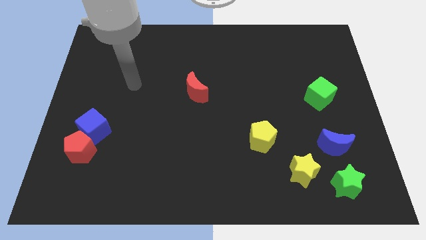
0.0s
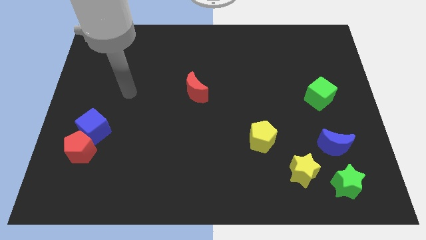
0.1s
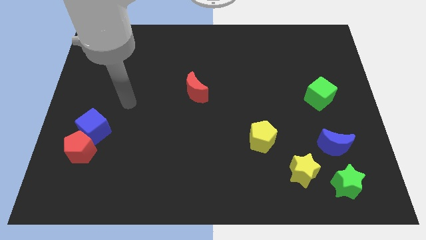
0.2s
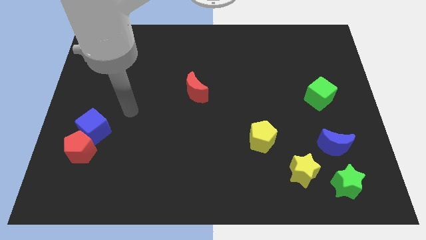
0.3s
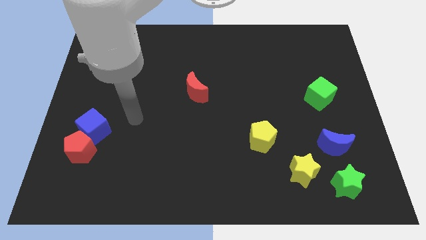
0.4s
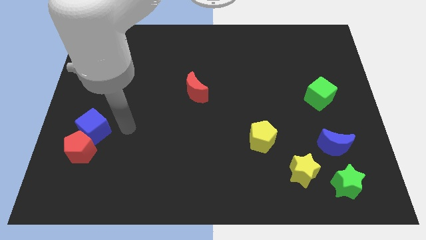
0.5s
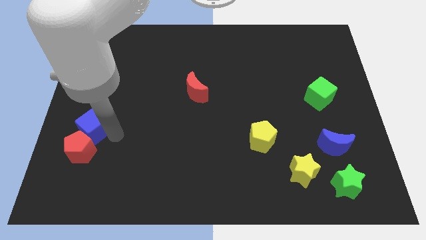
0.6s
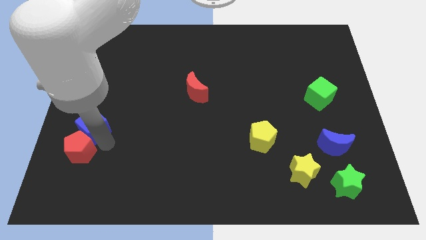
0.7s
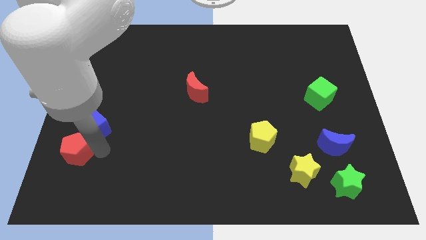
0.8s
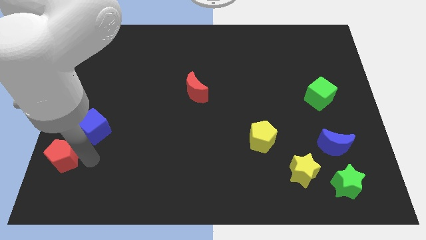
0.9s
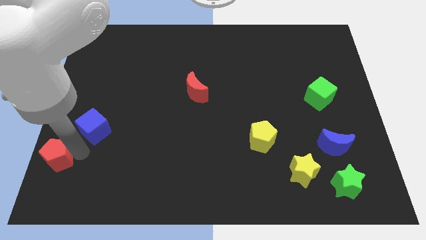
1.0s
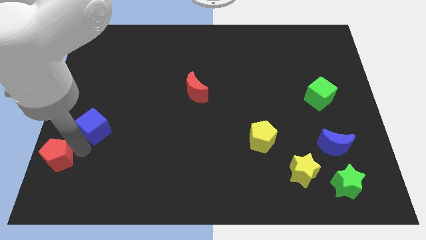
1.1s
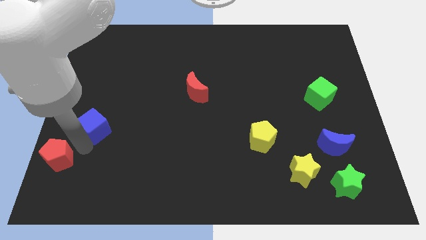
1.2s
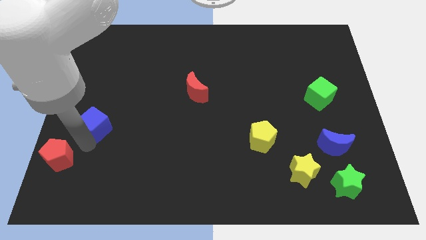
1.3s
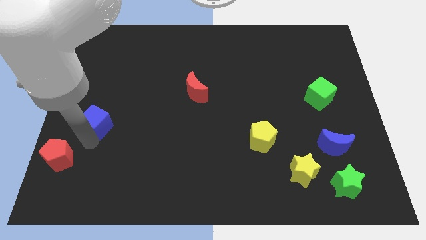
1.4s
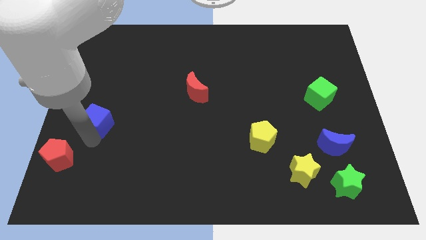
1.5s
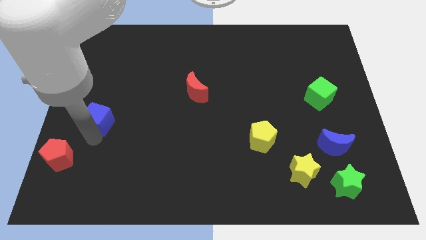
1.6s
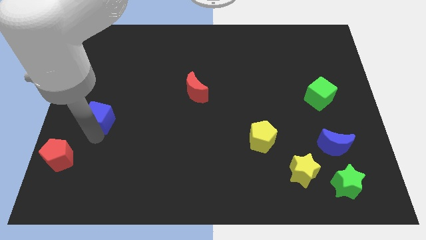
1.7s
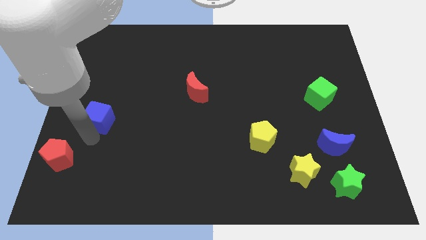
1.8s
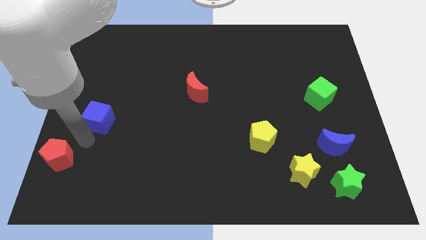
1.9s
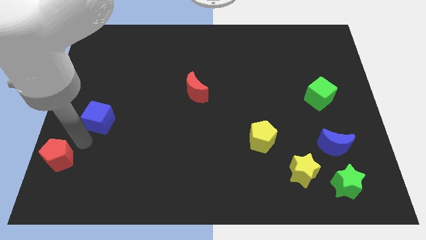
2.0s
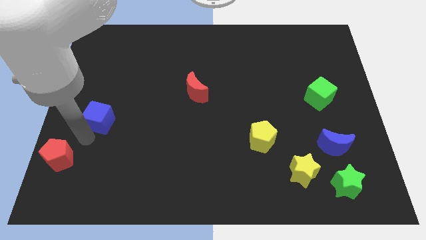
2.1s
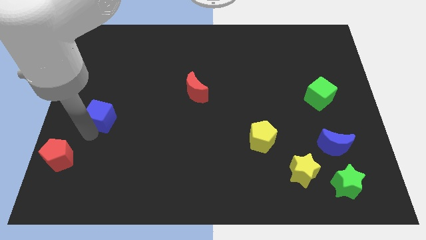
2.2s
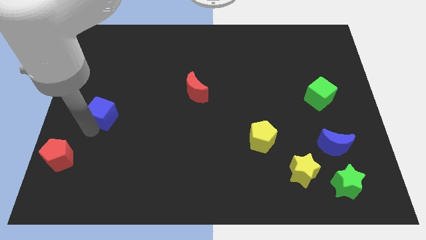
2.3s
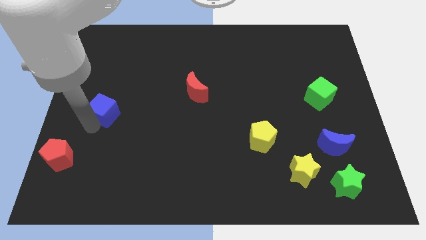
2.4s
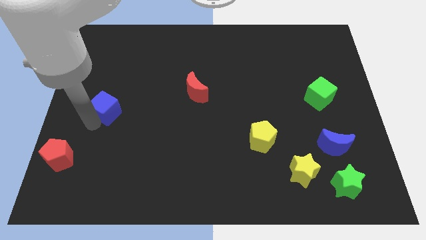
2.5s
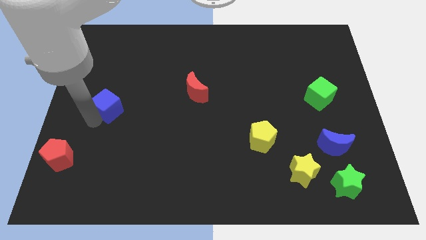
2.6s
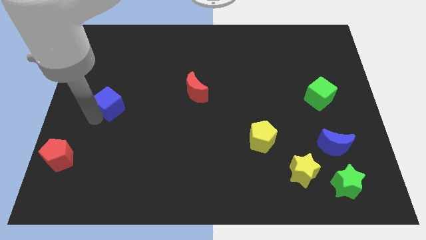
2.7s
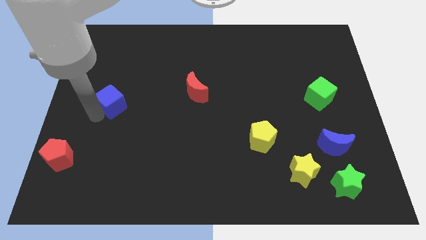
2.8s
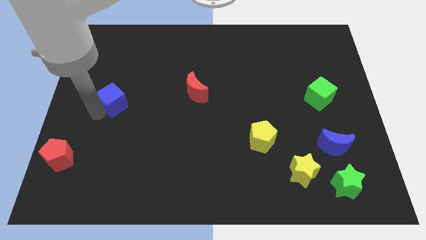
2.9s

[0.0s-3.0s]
move the blue cube slightly up and then right

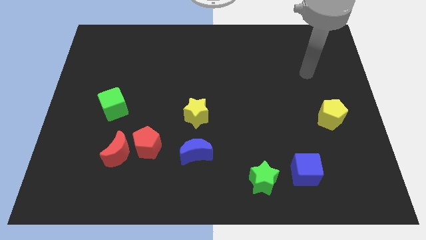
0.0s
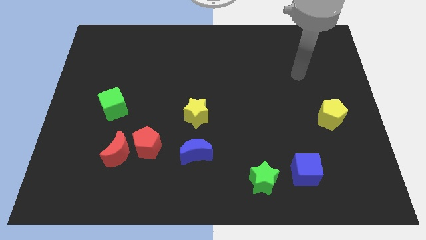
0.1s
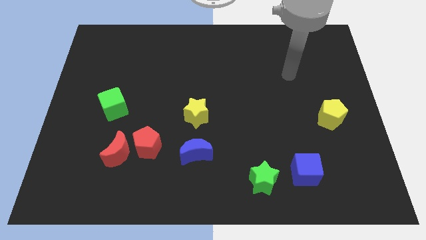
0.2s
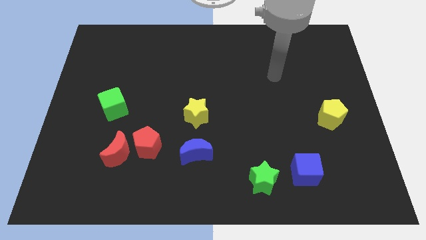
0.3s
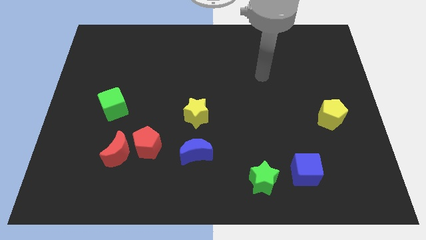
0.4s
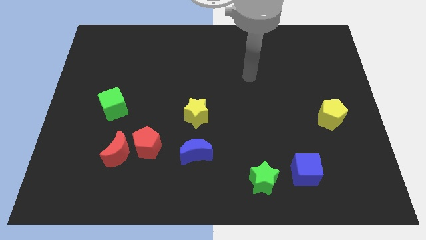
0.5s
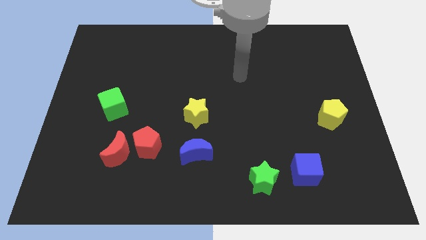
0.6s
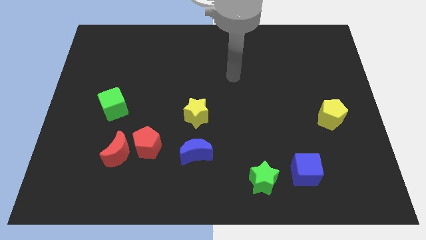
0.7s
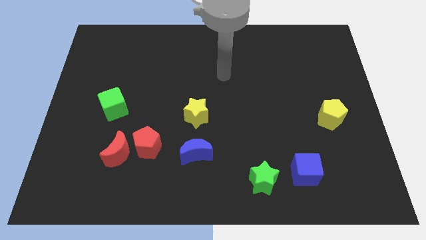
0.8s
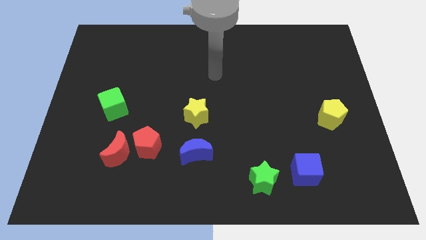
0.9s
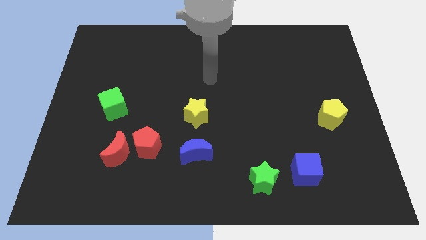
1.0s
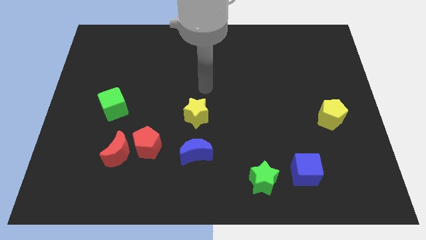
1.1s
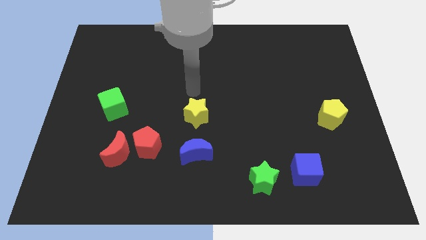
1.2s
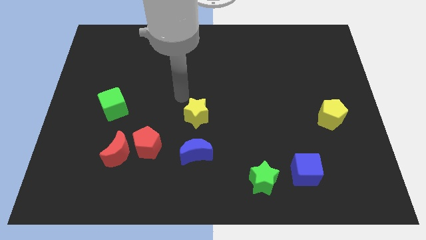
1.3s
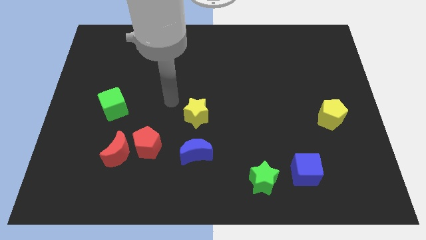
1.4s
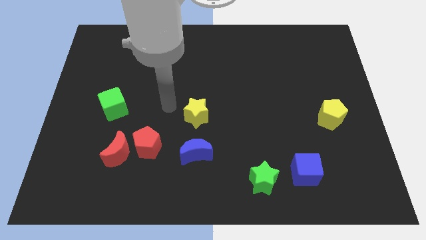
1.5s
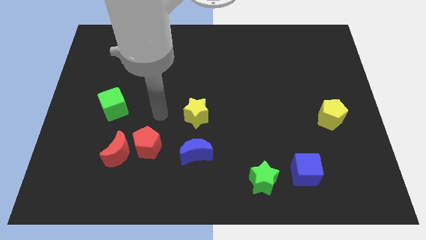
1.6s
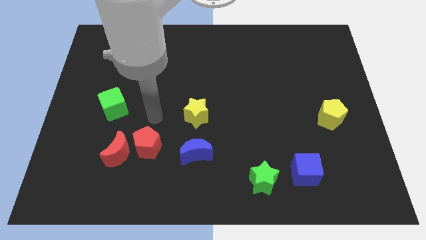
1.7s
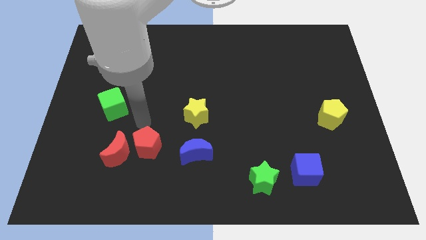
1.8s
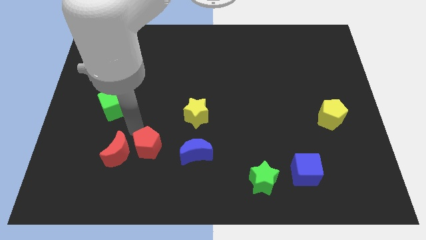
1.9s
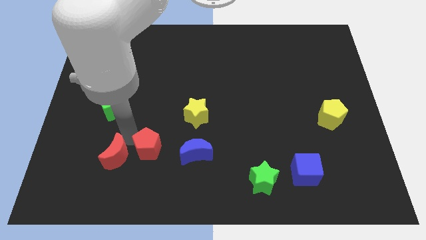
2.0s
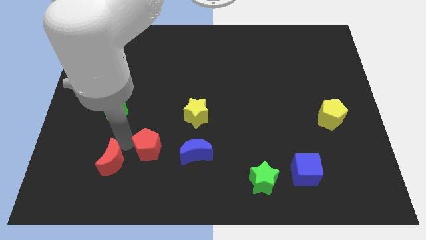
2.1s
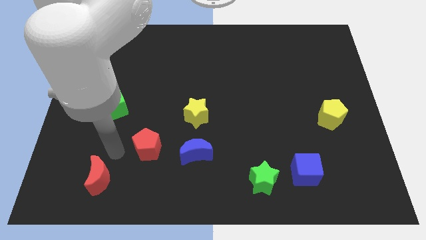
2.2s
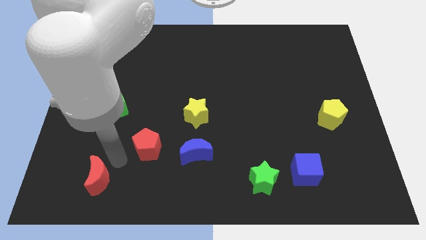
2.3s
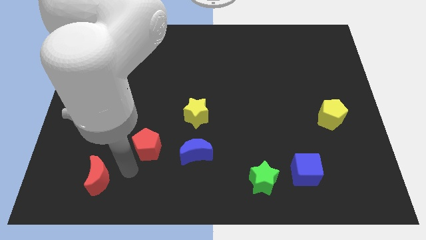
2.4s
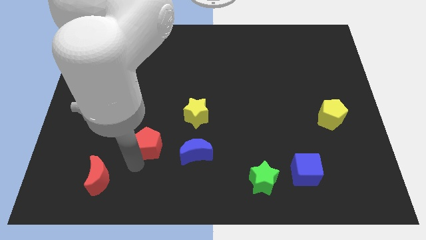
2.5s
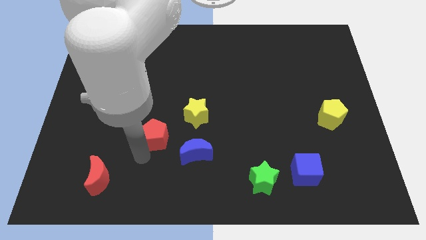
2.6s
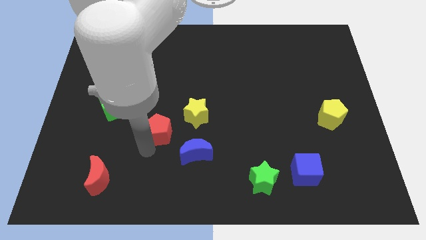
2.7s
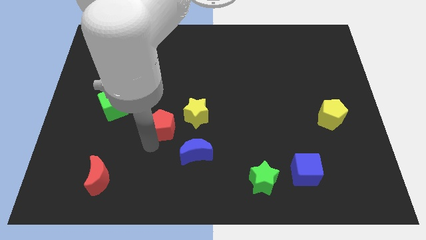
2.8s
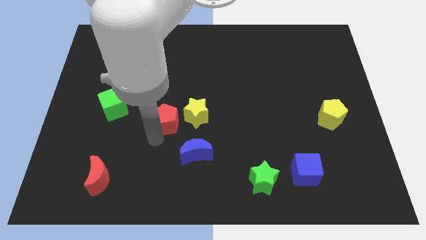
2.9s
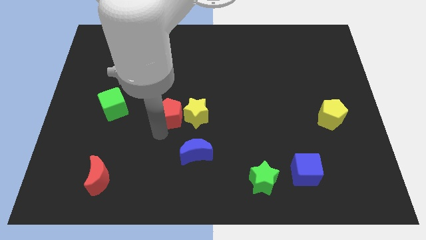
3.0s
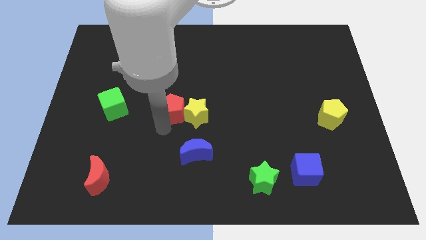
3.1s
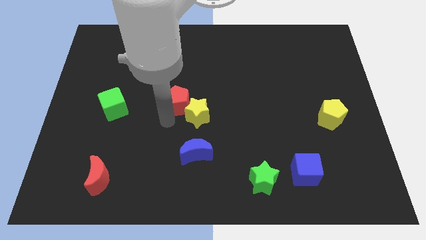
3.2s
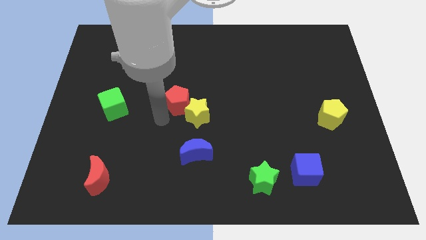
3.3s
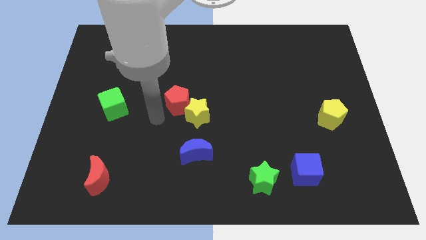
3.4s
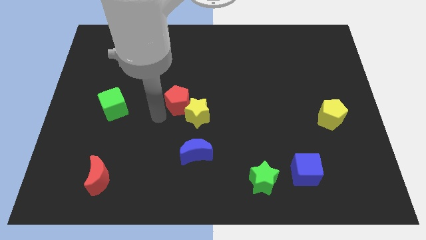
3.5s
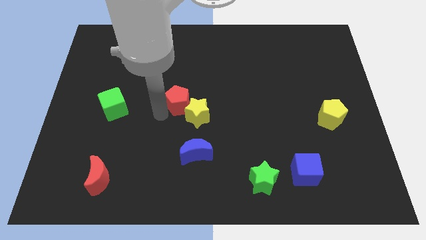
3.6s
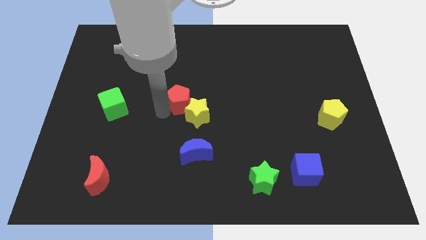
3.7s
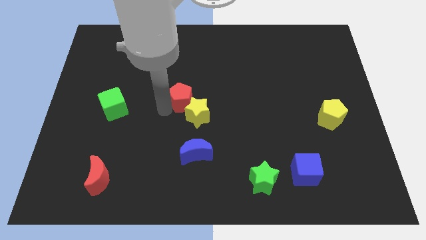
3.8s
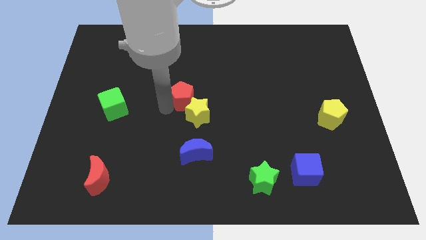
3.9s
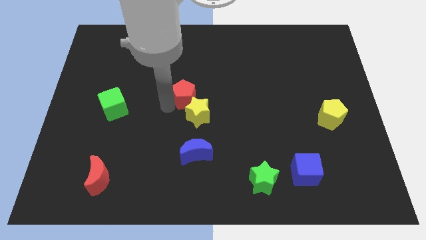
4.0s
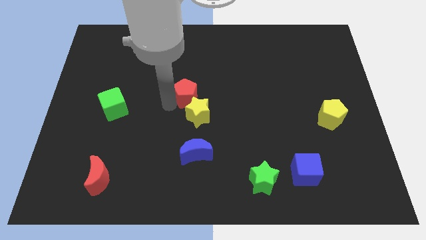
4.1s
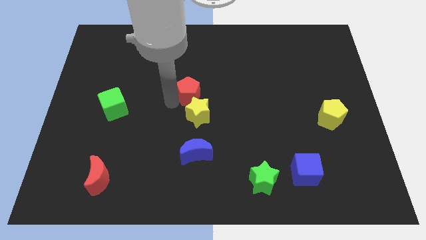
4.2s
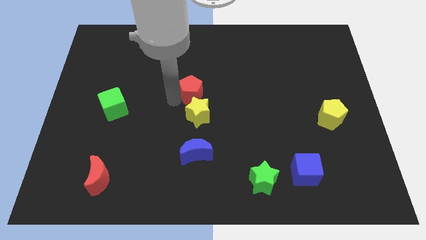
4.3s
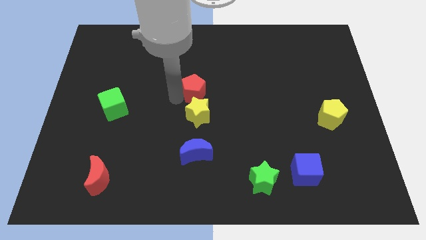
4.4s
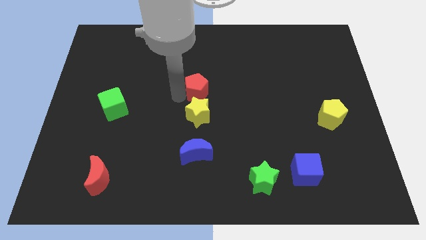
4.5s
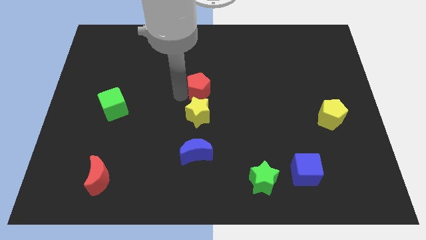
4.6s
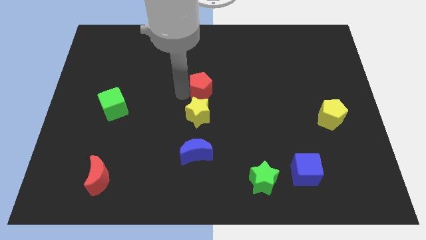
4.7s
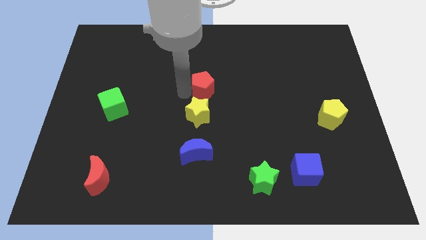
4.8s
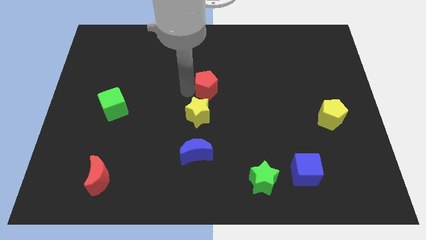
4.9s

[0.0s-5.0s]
move the red pentagon upwards and right diagonally
